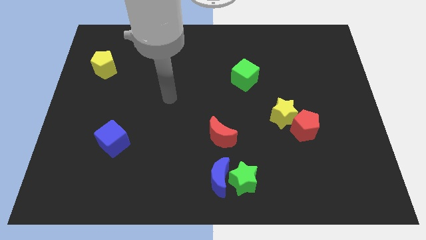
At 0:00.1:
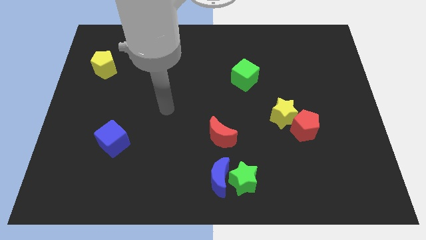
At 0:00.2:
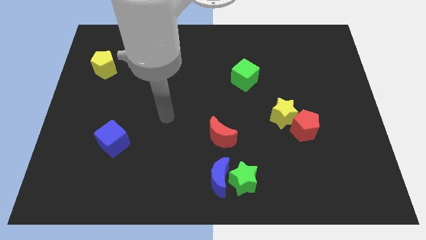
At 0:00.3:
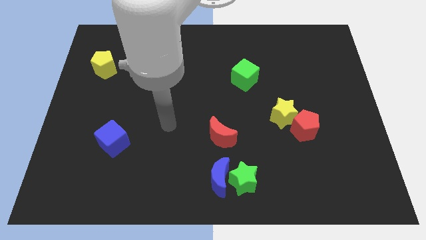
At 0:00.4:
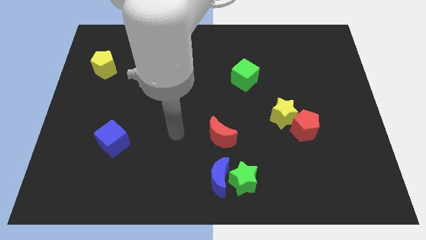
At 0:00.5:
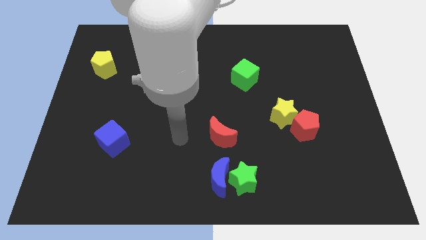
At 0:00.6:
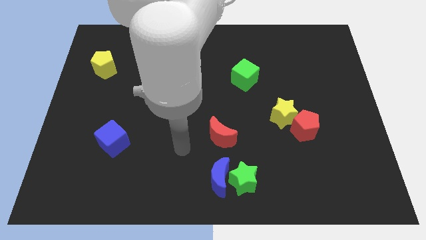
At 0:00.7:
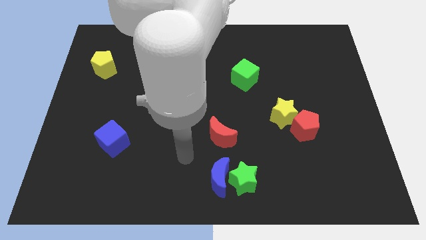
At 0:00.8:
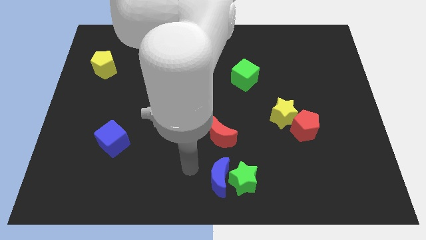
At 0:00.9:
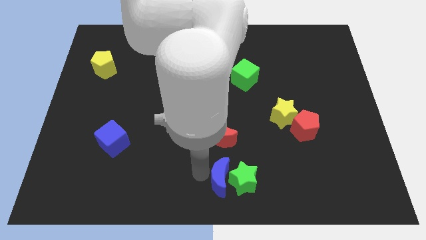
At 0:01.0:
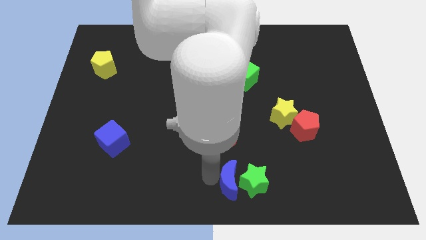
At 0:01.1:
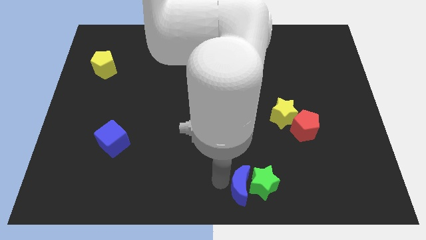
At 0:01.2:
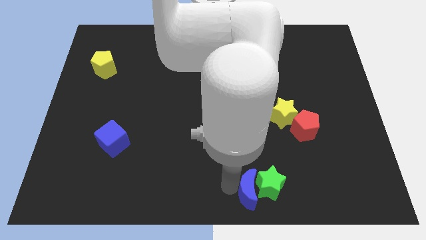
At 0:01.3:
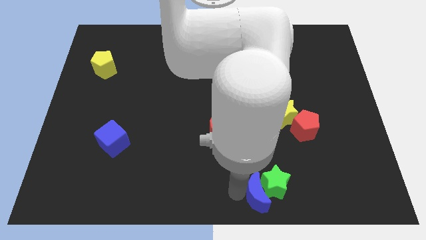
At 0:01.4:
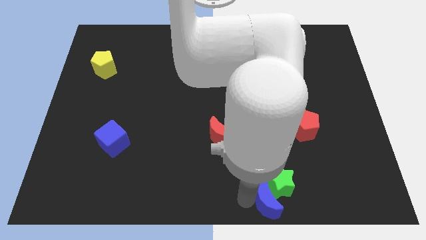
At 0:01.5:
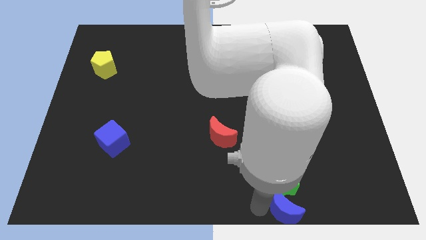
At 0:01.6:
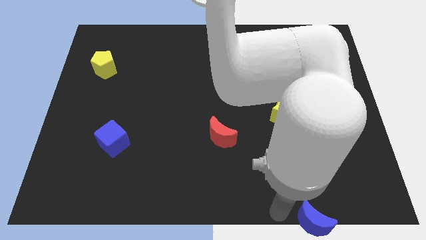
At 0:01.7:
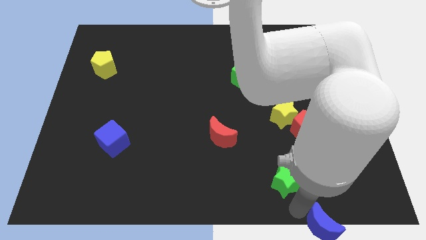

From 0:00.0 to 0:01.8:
separate the green star from the blue moon

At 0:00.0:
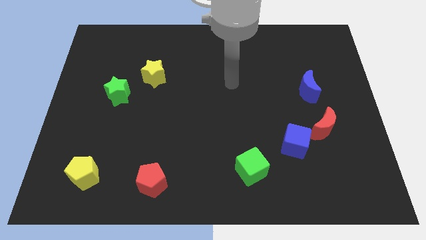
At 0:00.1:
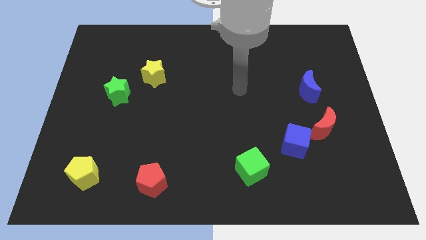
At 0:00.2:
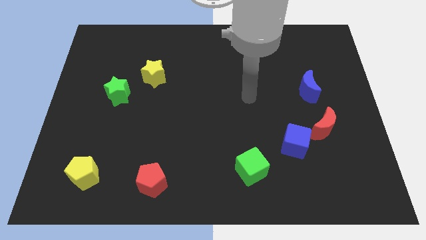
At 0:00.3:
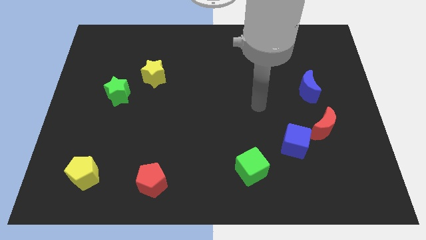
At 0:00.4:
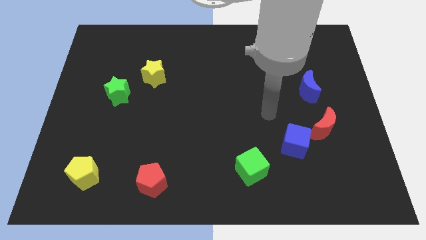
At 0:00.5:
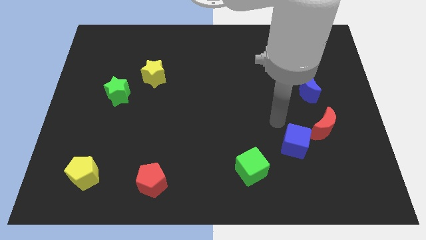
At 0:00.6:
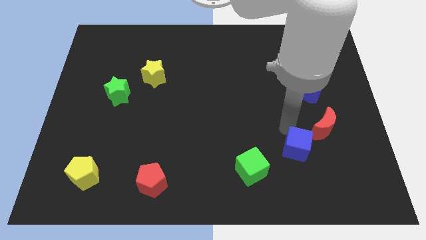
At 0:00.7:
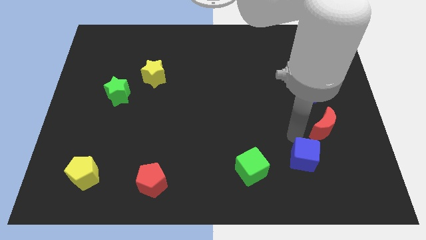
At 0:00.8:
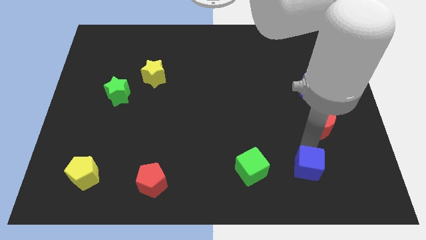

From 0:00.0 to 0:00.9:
pull the red moon apart from the blue cube

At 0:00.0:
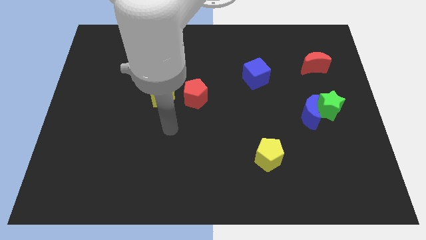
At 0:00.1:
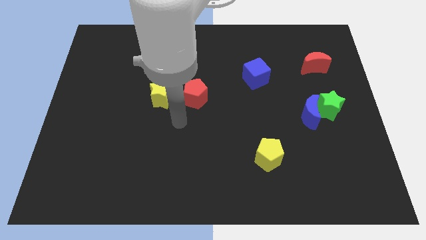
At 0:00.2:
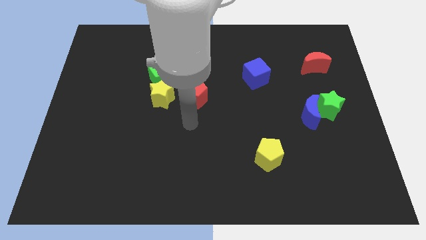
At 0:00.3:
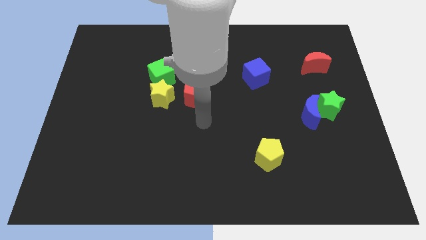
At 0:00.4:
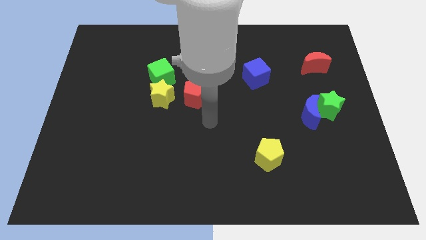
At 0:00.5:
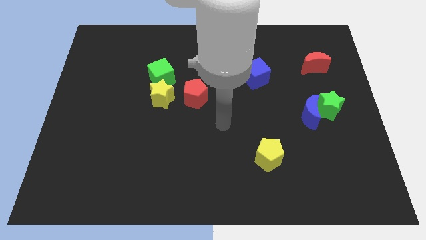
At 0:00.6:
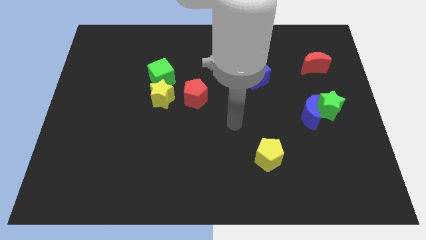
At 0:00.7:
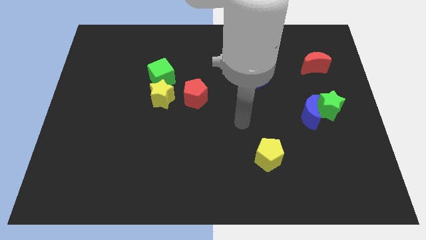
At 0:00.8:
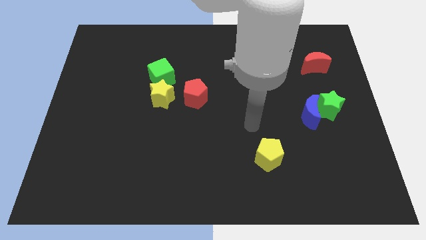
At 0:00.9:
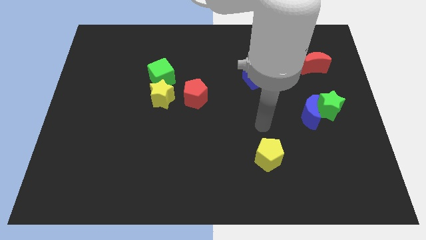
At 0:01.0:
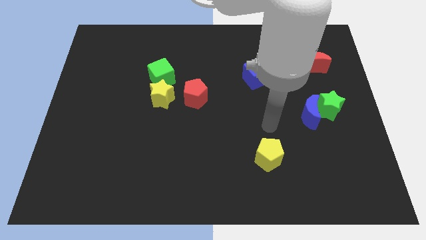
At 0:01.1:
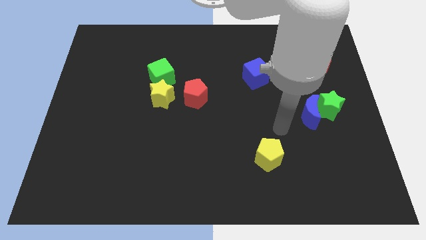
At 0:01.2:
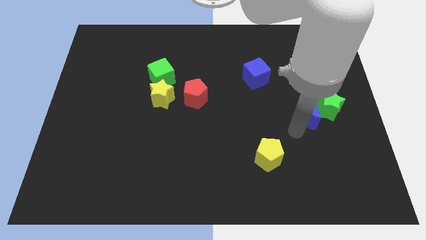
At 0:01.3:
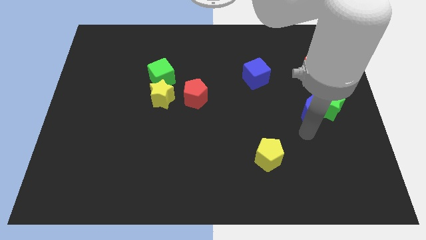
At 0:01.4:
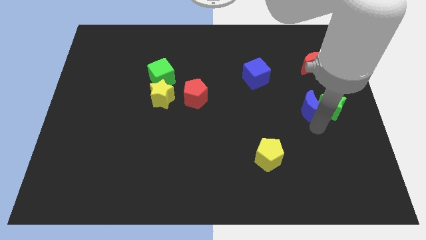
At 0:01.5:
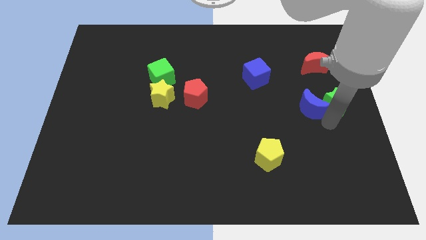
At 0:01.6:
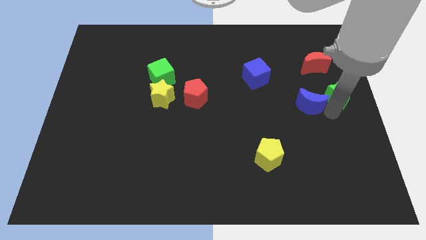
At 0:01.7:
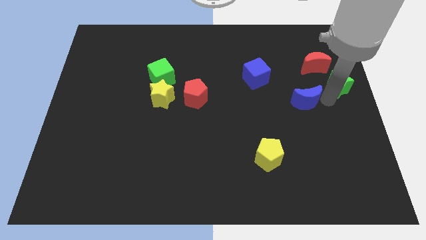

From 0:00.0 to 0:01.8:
separate the blue moon from the green star

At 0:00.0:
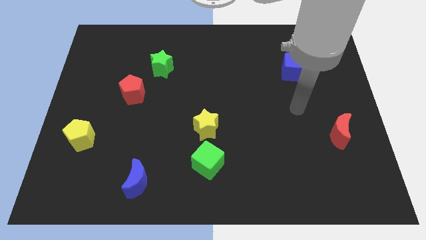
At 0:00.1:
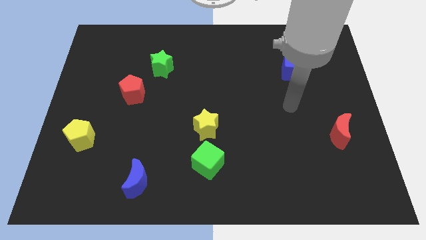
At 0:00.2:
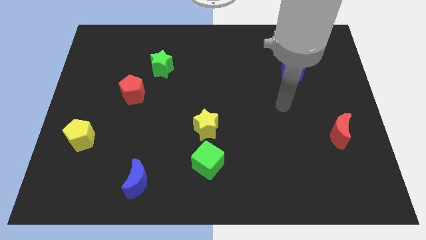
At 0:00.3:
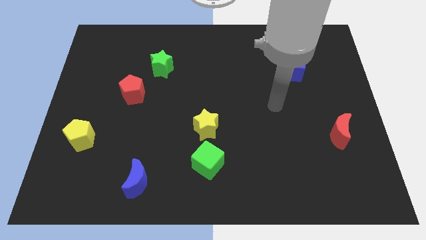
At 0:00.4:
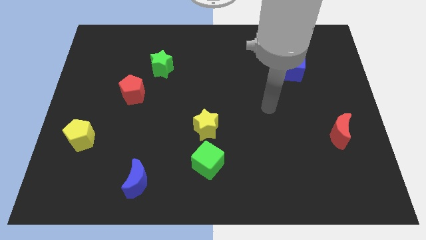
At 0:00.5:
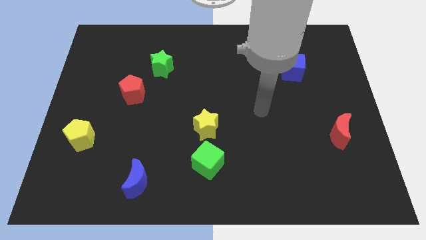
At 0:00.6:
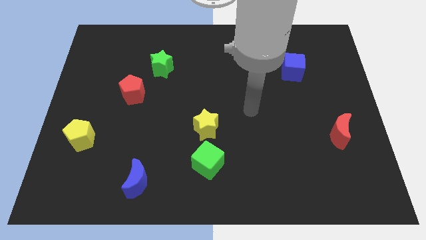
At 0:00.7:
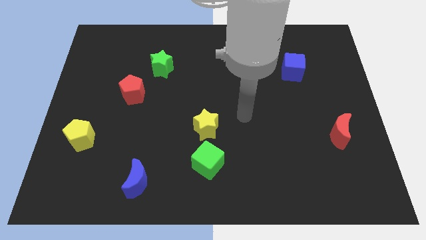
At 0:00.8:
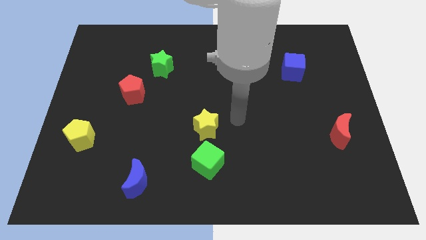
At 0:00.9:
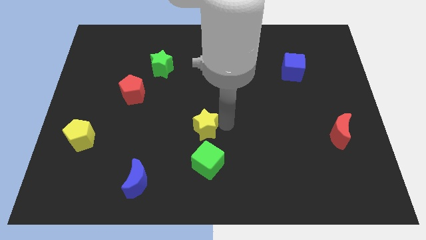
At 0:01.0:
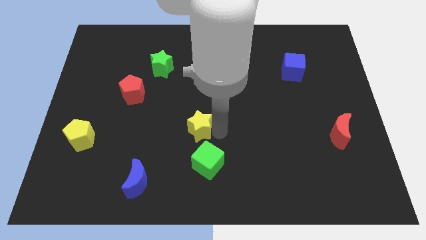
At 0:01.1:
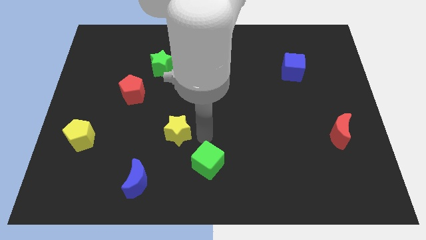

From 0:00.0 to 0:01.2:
pull the green cube apart from the yellow star

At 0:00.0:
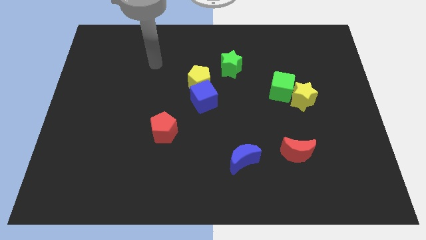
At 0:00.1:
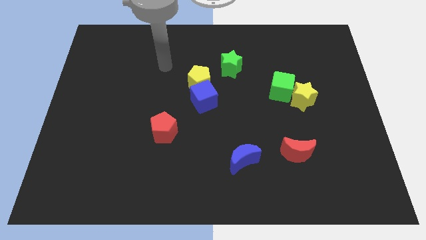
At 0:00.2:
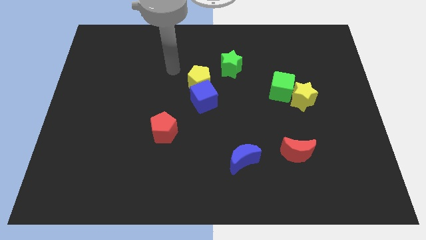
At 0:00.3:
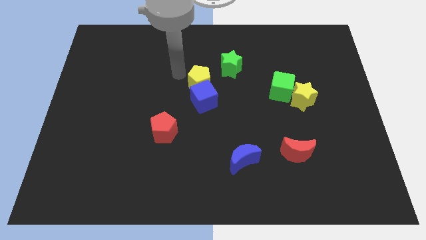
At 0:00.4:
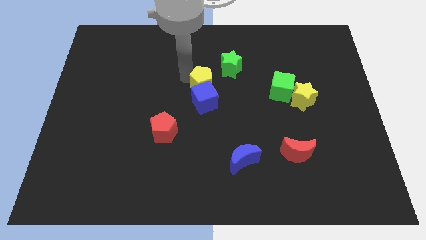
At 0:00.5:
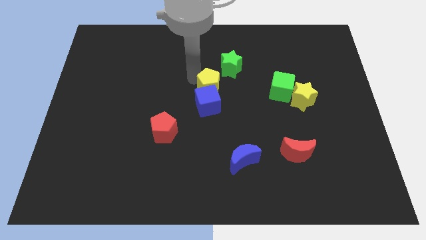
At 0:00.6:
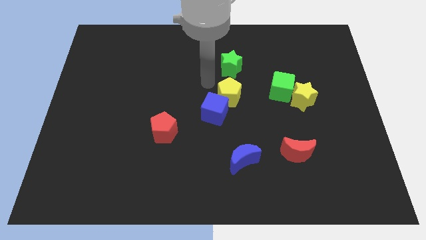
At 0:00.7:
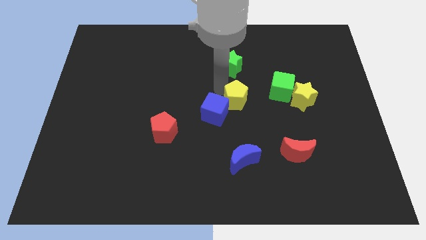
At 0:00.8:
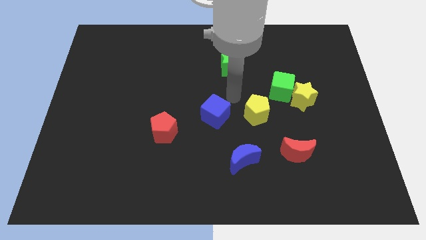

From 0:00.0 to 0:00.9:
separate the blue cube from the yellow pentagon

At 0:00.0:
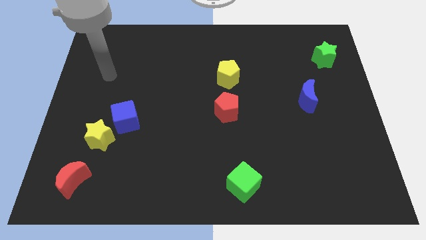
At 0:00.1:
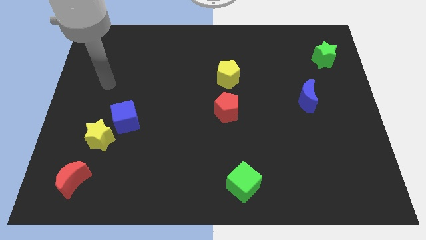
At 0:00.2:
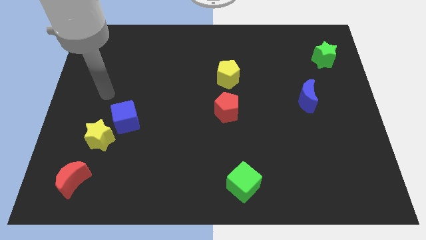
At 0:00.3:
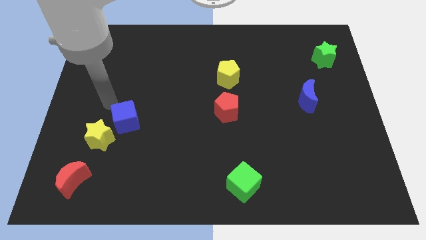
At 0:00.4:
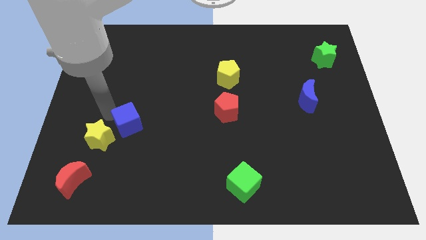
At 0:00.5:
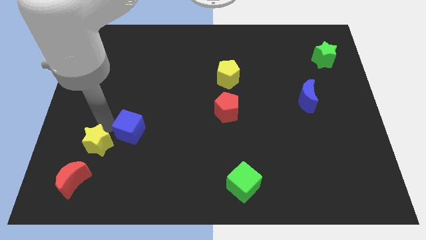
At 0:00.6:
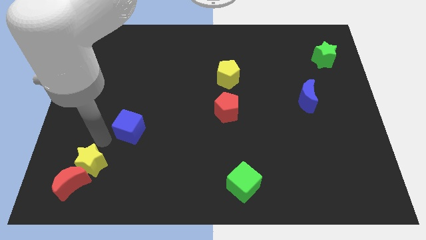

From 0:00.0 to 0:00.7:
pull the blue cube apart from the yellow star

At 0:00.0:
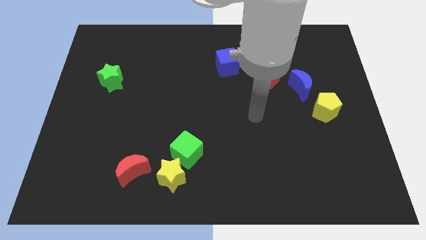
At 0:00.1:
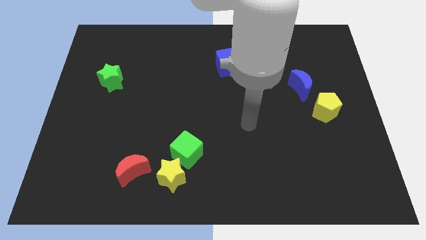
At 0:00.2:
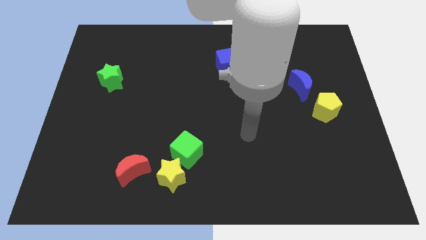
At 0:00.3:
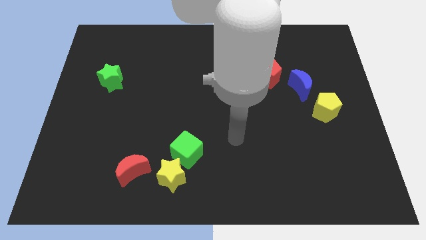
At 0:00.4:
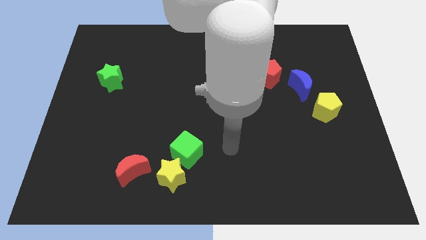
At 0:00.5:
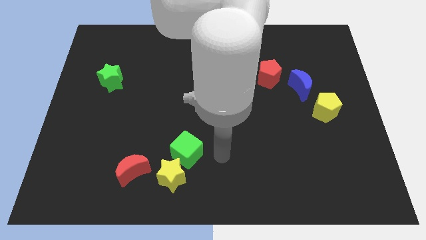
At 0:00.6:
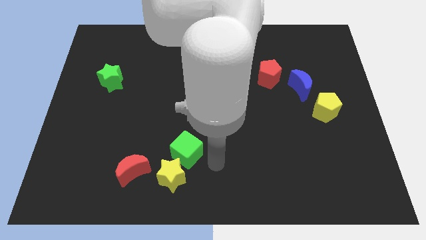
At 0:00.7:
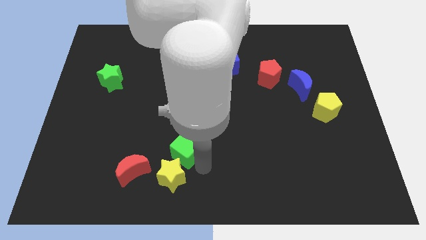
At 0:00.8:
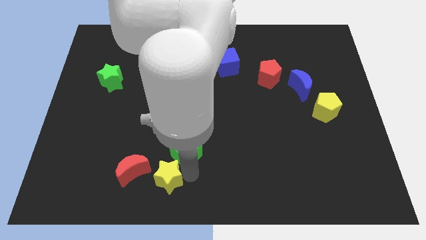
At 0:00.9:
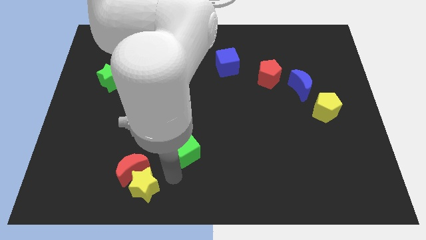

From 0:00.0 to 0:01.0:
move the green cube away from the yellow star

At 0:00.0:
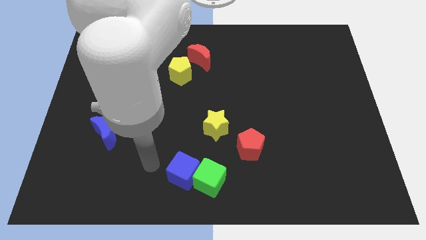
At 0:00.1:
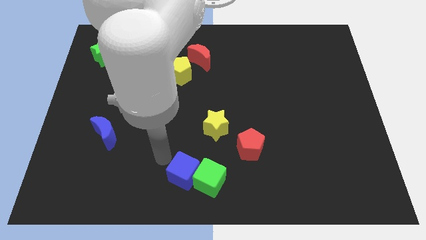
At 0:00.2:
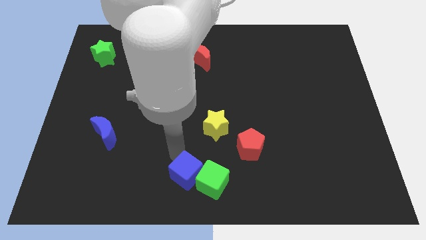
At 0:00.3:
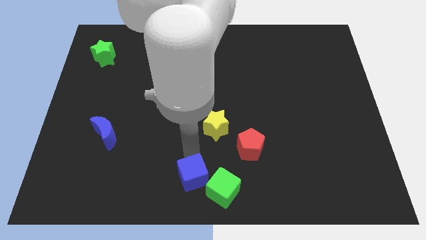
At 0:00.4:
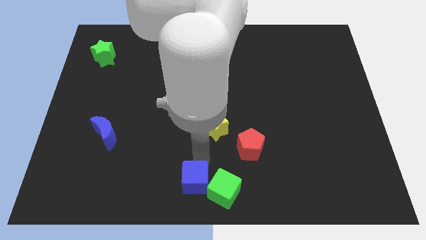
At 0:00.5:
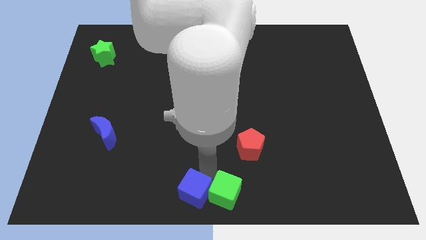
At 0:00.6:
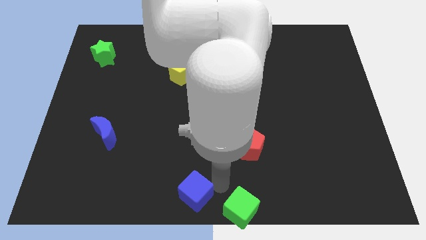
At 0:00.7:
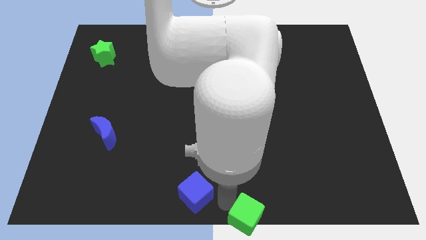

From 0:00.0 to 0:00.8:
pull the blue cube apart from the green cube

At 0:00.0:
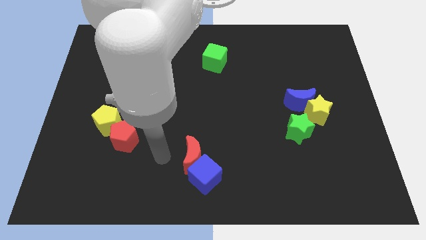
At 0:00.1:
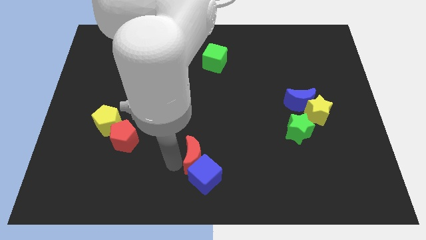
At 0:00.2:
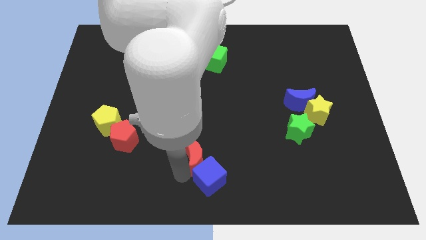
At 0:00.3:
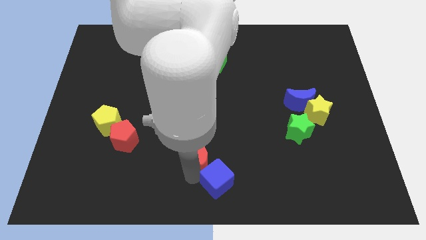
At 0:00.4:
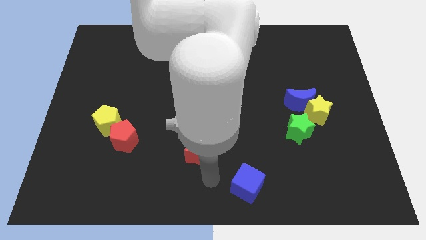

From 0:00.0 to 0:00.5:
separate the red moon from the blue cube
